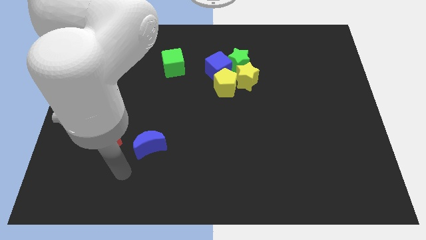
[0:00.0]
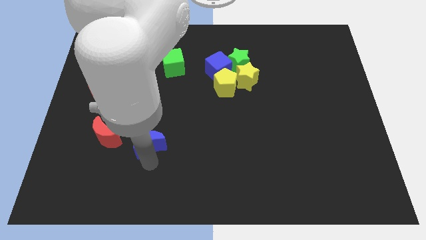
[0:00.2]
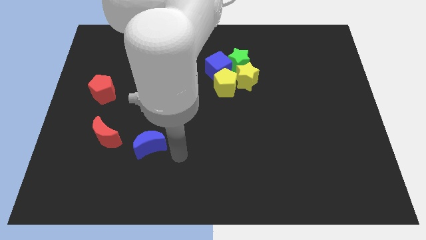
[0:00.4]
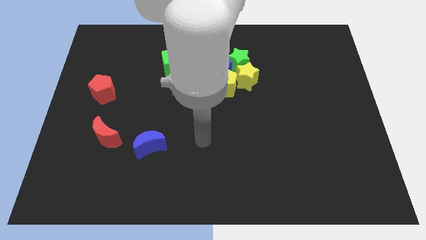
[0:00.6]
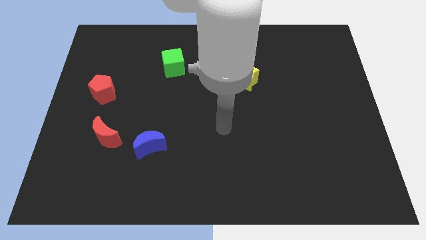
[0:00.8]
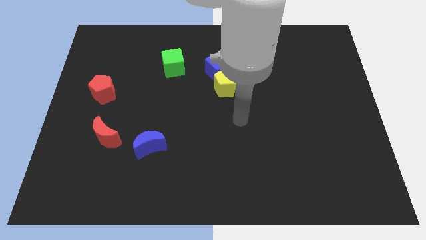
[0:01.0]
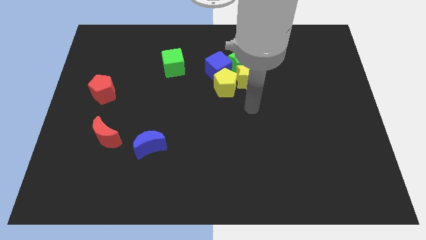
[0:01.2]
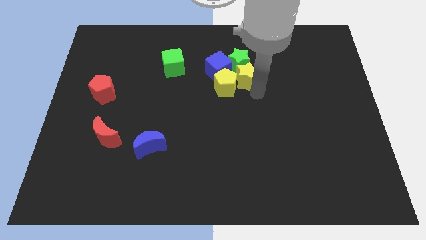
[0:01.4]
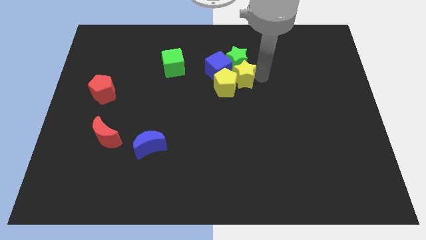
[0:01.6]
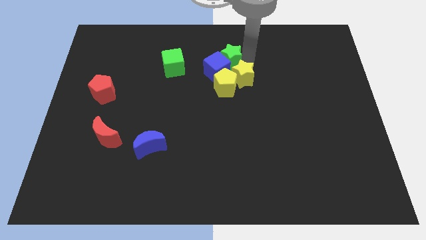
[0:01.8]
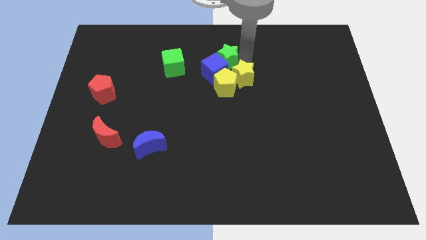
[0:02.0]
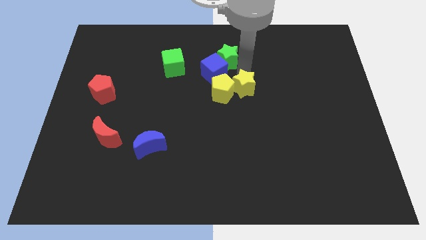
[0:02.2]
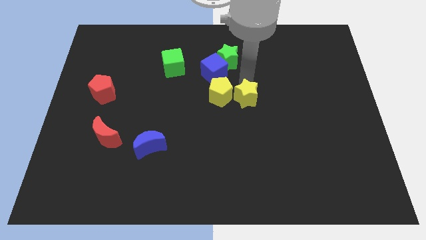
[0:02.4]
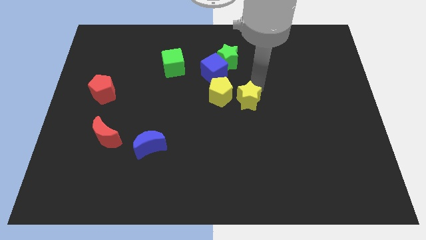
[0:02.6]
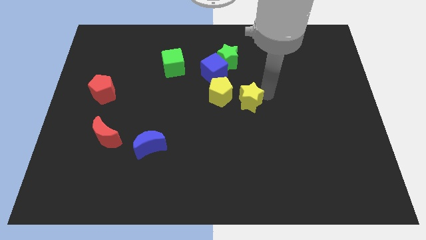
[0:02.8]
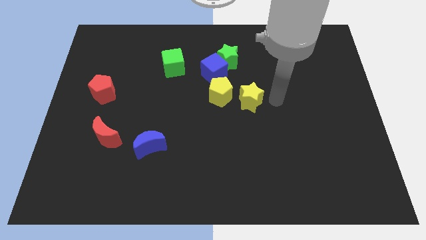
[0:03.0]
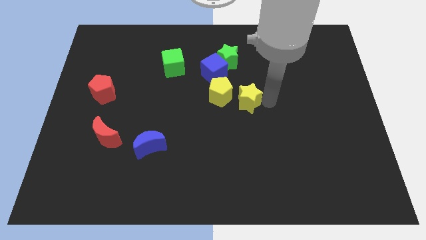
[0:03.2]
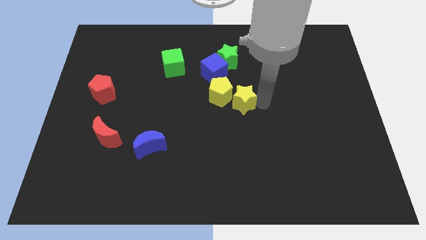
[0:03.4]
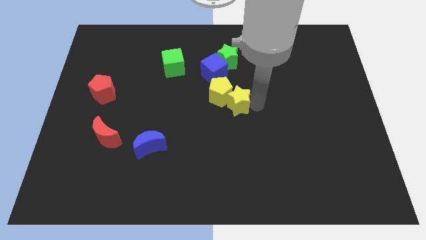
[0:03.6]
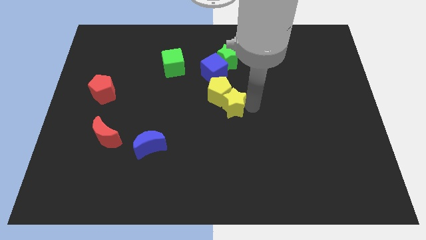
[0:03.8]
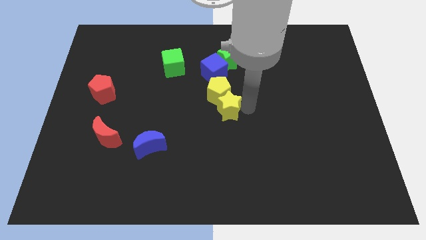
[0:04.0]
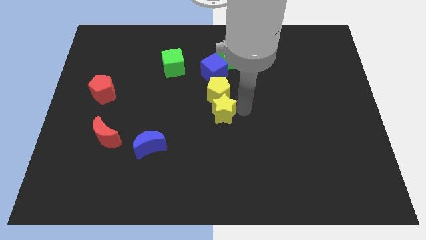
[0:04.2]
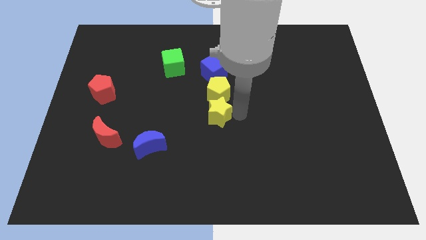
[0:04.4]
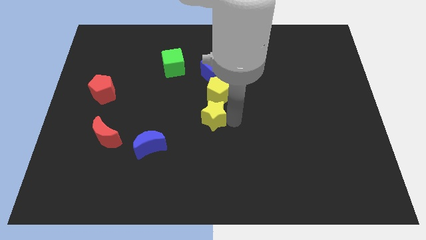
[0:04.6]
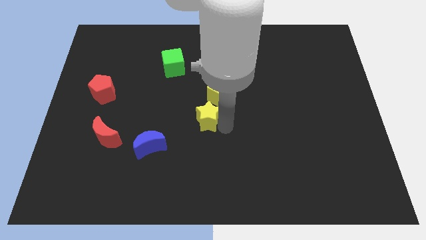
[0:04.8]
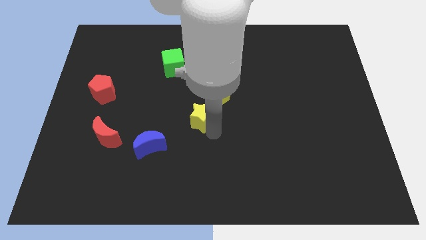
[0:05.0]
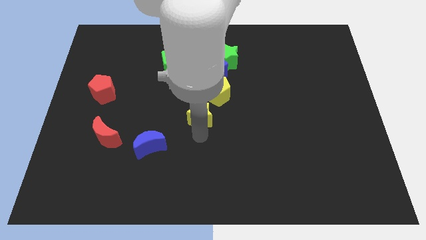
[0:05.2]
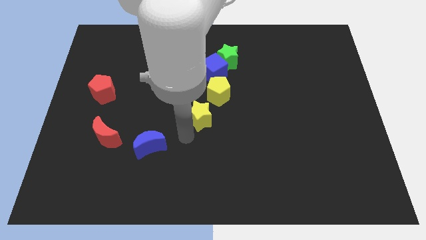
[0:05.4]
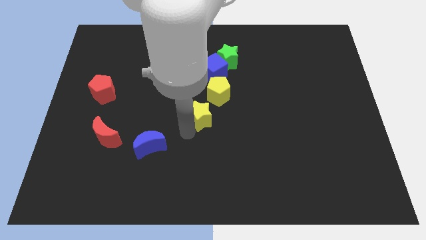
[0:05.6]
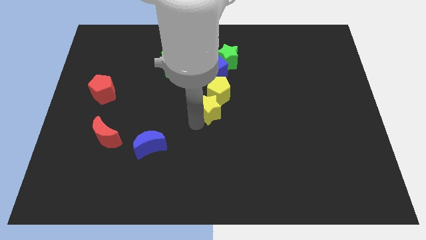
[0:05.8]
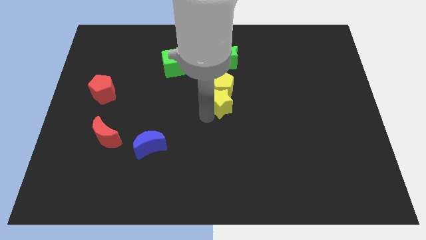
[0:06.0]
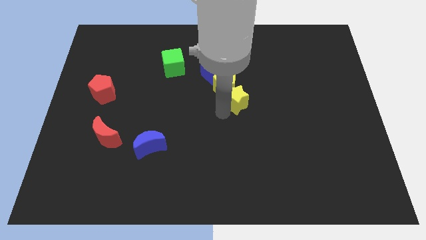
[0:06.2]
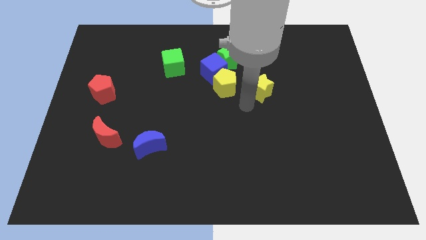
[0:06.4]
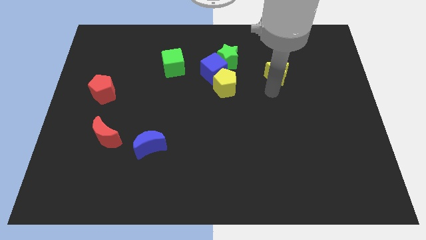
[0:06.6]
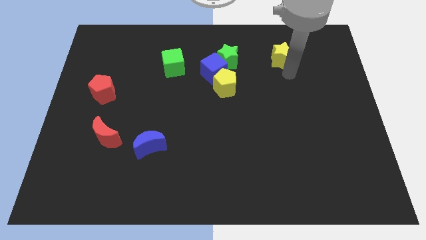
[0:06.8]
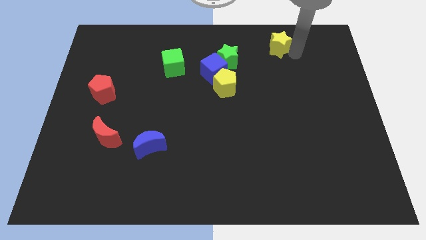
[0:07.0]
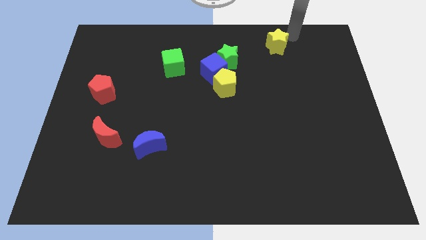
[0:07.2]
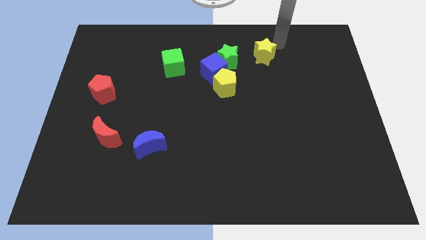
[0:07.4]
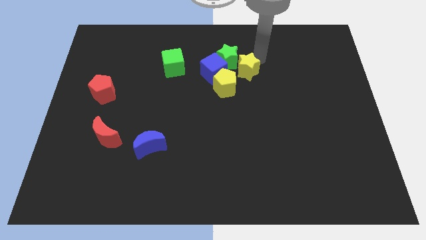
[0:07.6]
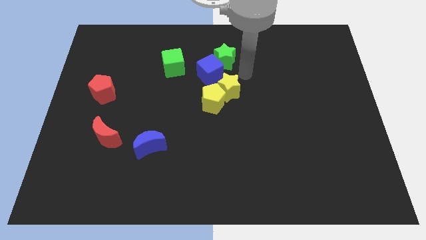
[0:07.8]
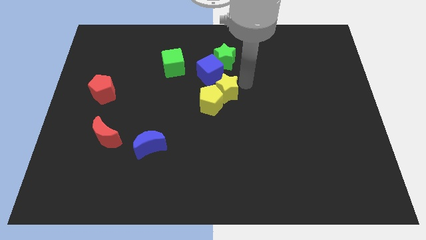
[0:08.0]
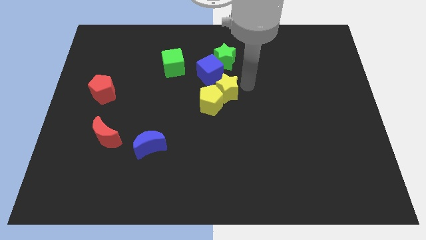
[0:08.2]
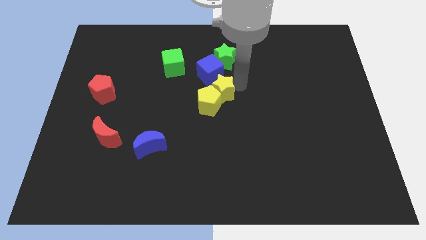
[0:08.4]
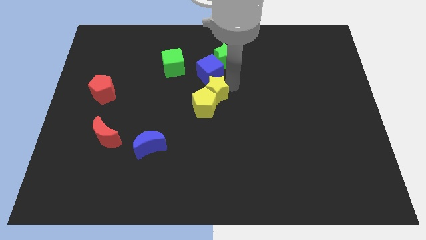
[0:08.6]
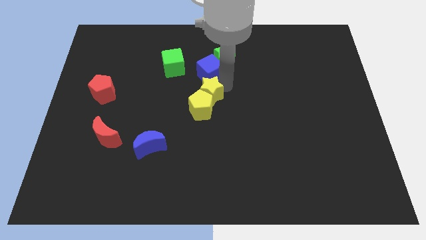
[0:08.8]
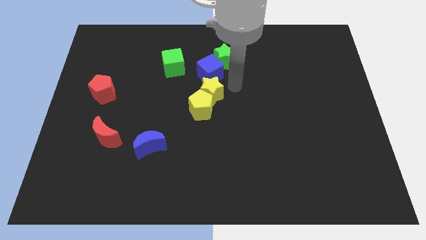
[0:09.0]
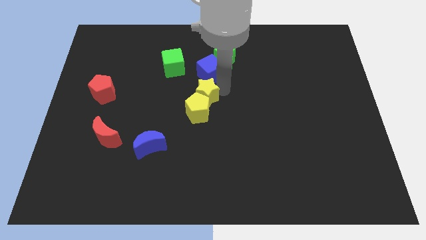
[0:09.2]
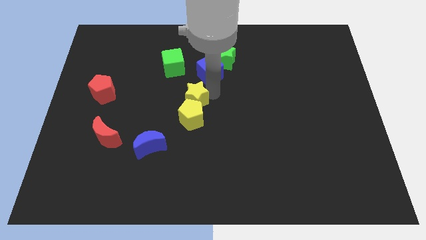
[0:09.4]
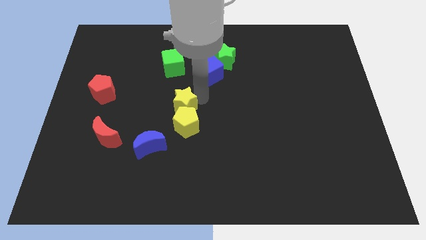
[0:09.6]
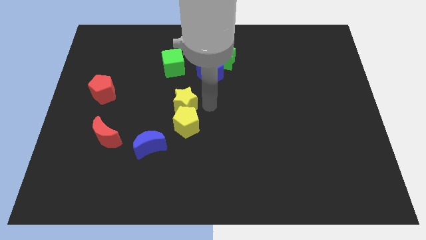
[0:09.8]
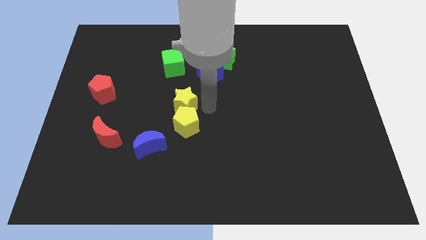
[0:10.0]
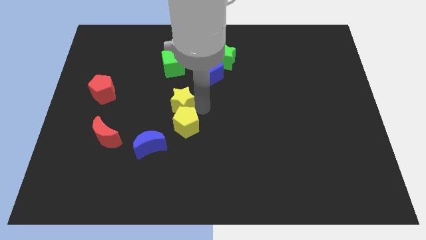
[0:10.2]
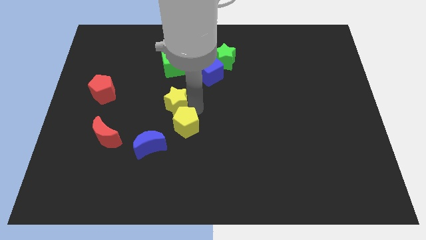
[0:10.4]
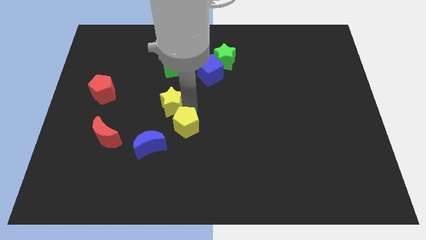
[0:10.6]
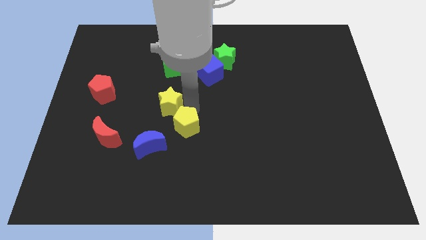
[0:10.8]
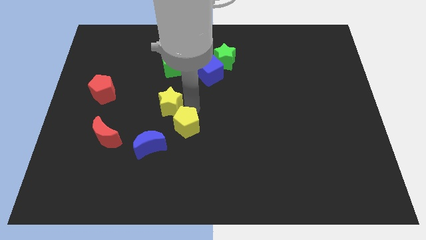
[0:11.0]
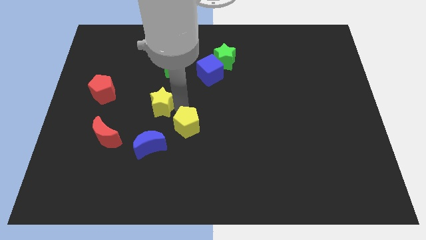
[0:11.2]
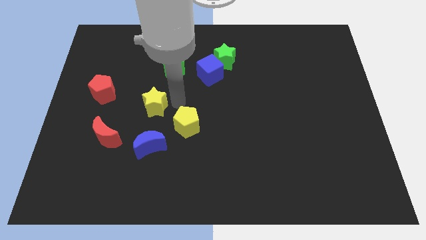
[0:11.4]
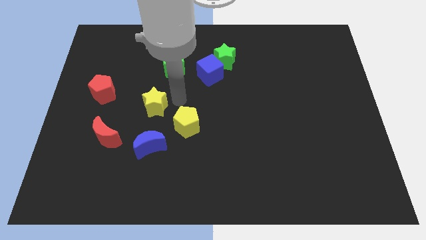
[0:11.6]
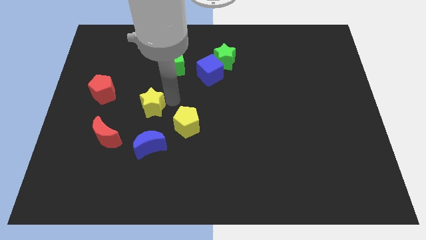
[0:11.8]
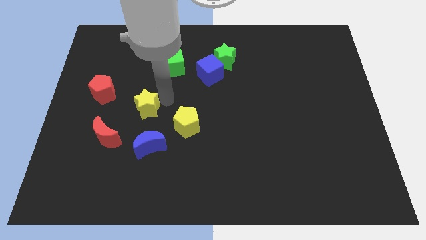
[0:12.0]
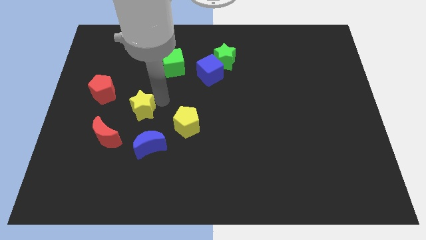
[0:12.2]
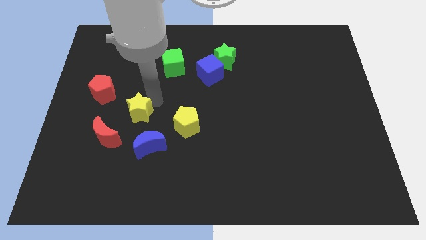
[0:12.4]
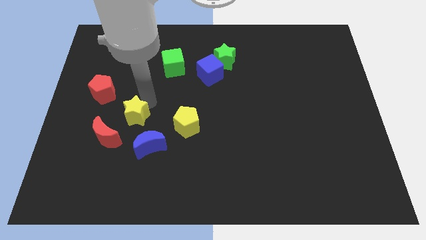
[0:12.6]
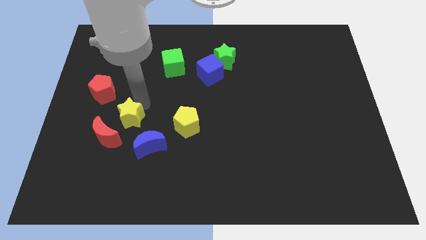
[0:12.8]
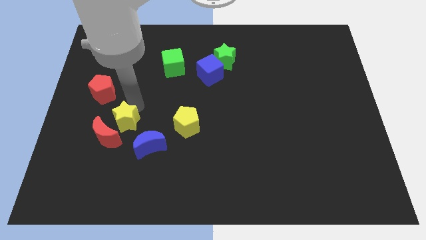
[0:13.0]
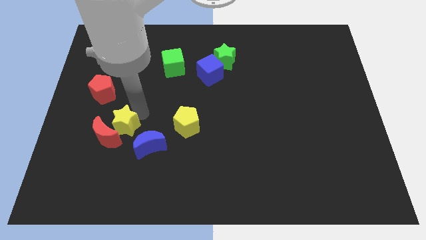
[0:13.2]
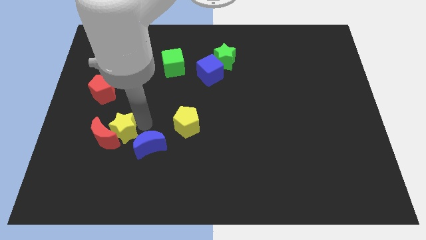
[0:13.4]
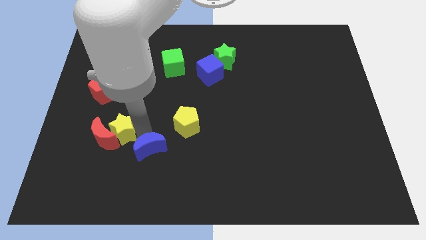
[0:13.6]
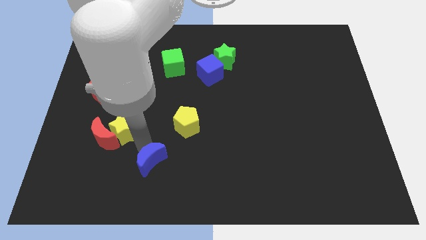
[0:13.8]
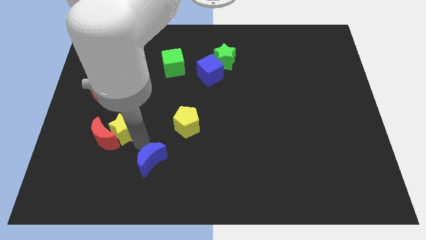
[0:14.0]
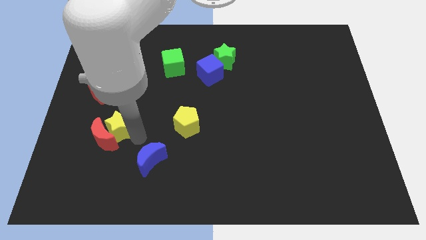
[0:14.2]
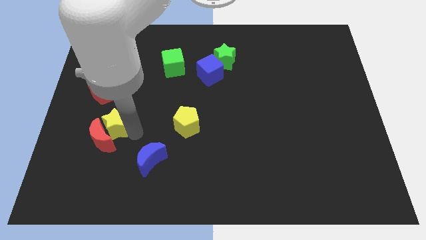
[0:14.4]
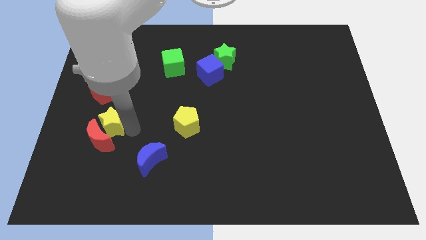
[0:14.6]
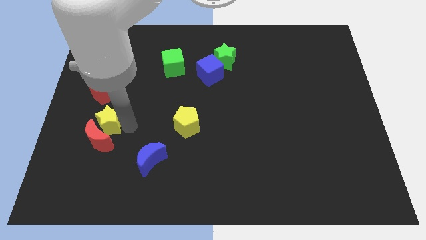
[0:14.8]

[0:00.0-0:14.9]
put the yellow star to the top left of the red moon
